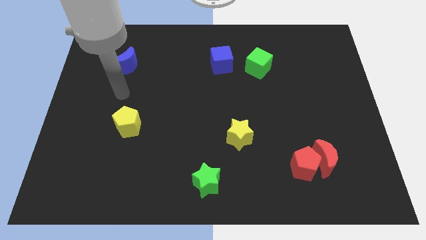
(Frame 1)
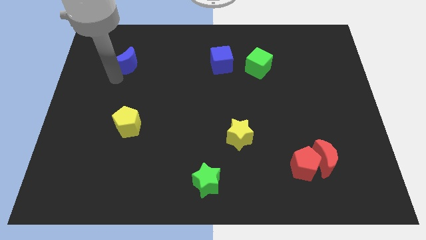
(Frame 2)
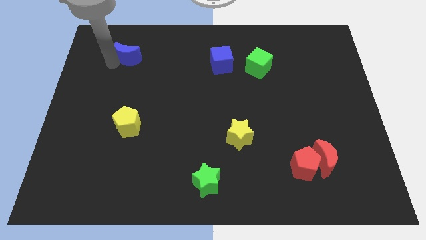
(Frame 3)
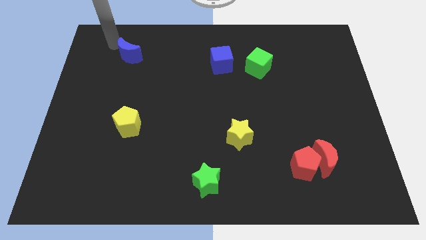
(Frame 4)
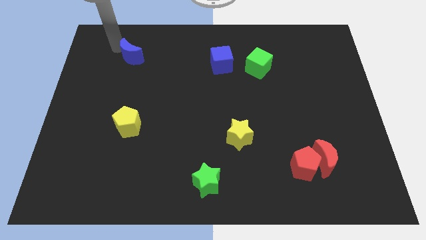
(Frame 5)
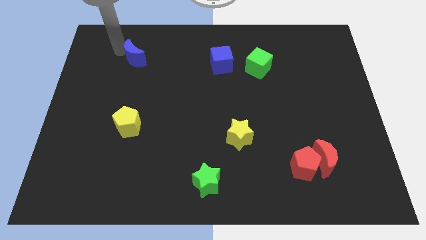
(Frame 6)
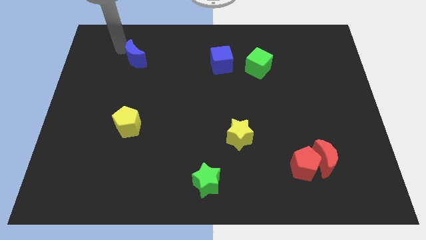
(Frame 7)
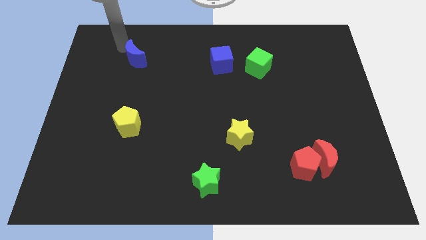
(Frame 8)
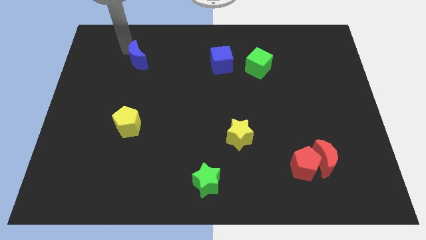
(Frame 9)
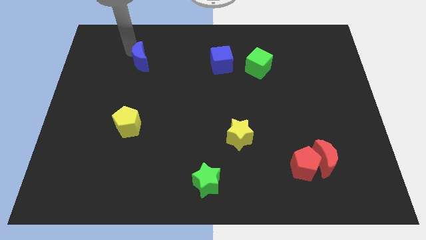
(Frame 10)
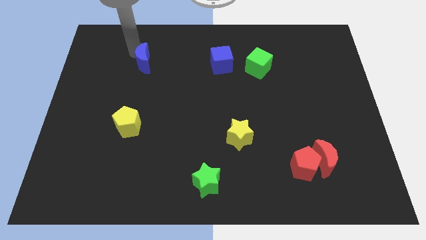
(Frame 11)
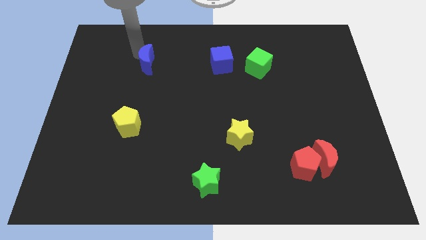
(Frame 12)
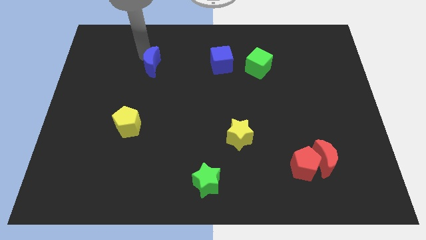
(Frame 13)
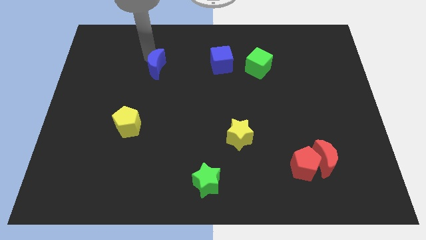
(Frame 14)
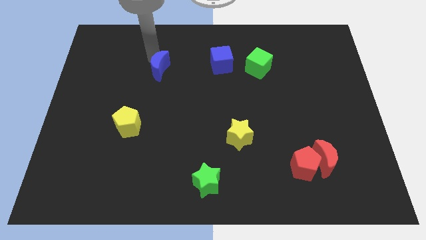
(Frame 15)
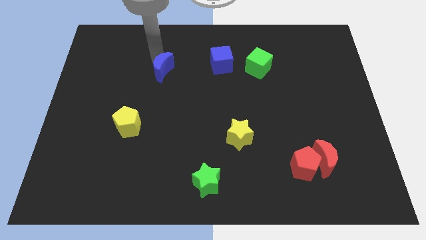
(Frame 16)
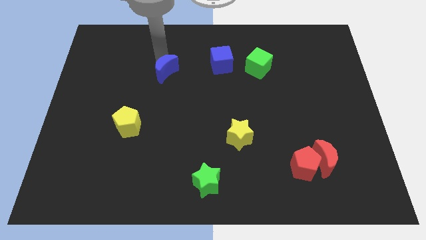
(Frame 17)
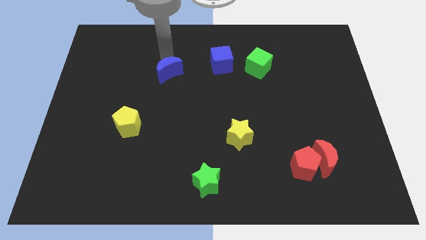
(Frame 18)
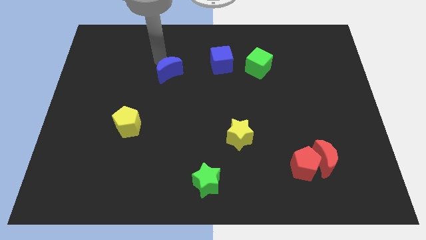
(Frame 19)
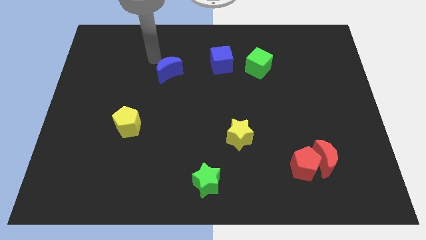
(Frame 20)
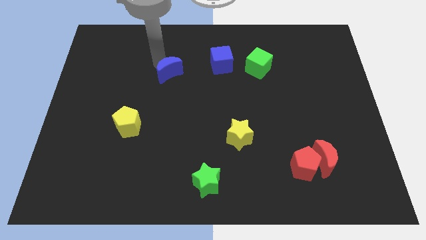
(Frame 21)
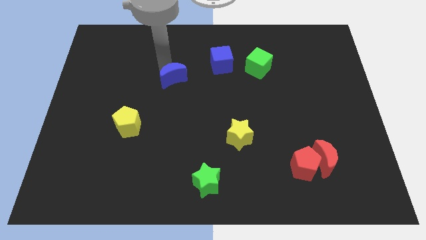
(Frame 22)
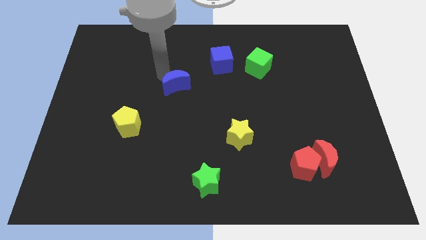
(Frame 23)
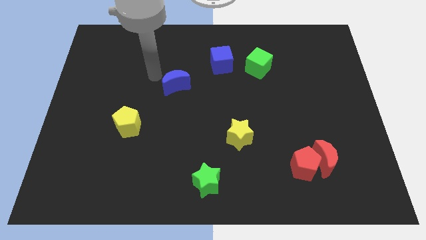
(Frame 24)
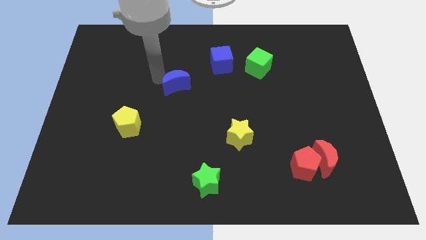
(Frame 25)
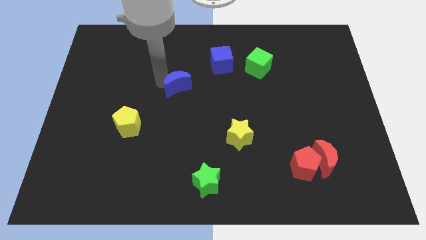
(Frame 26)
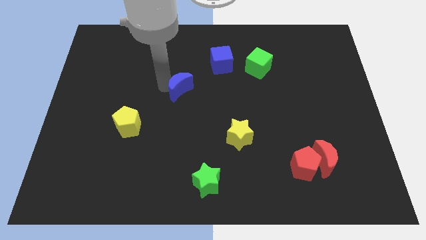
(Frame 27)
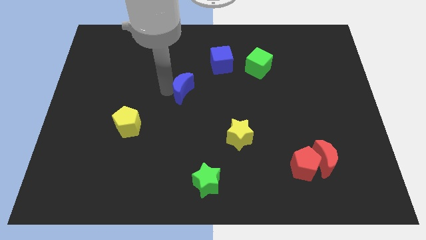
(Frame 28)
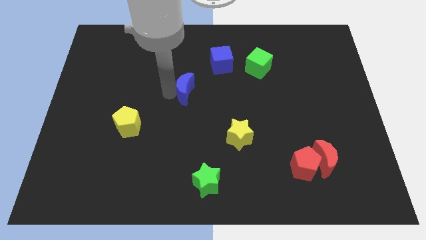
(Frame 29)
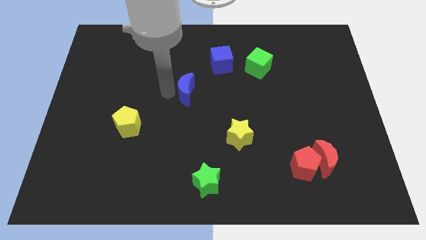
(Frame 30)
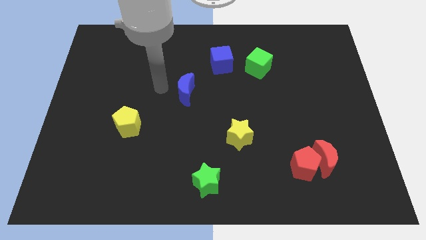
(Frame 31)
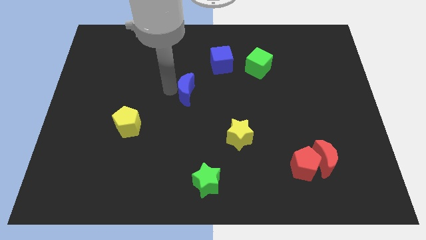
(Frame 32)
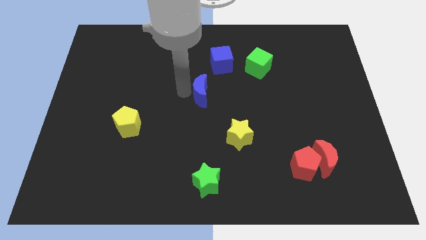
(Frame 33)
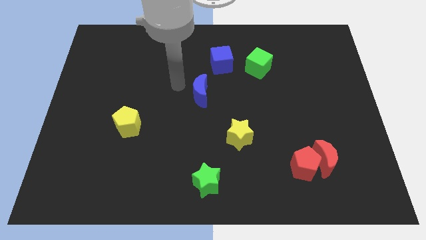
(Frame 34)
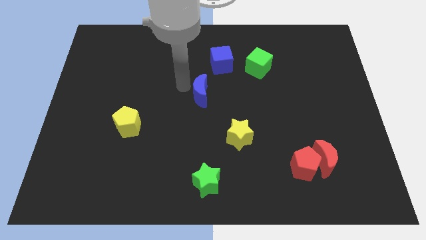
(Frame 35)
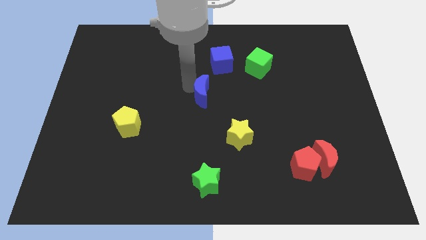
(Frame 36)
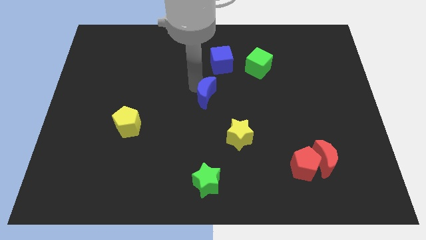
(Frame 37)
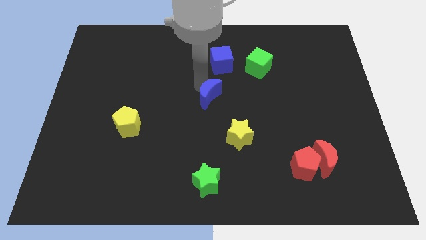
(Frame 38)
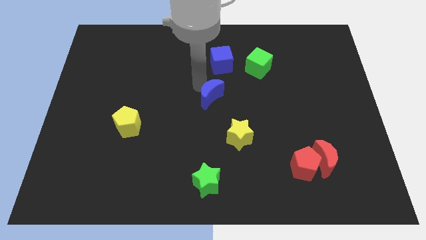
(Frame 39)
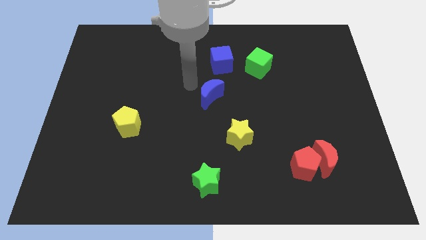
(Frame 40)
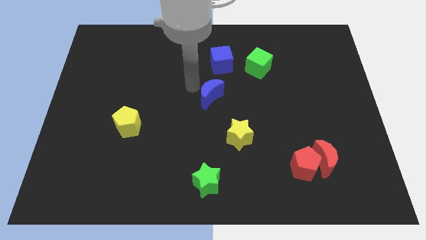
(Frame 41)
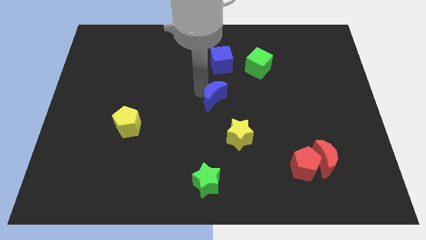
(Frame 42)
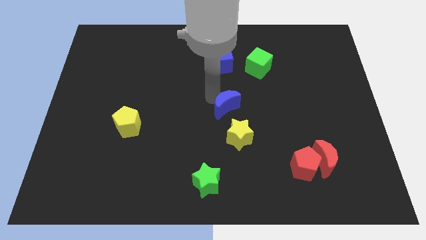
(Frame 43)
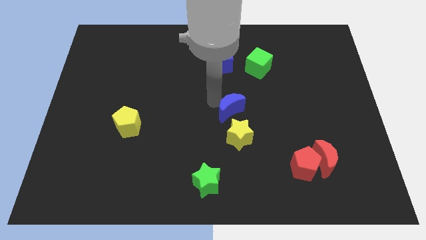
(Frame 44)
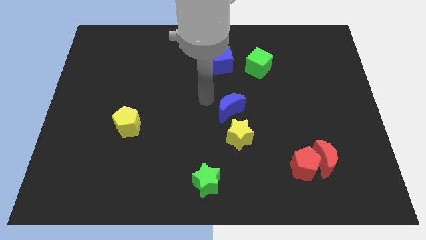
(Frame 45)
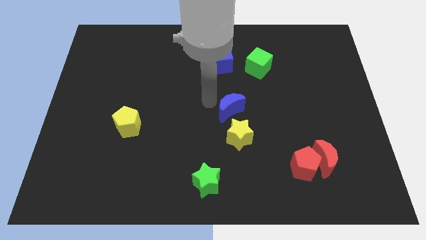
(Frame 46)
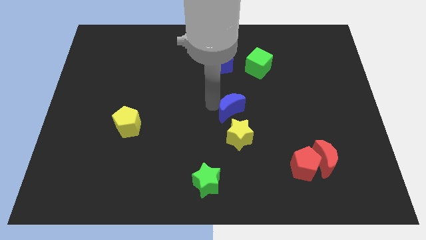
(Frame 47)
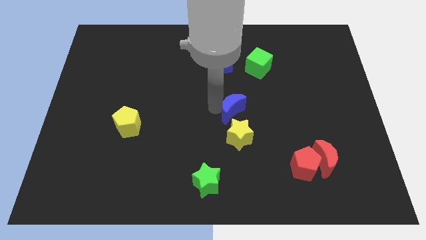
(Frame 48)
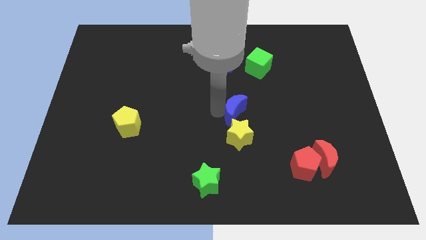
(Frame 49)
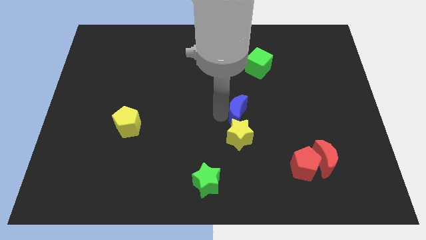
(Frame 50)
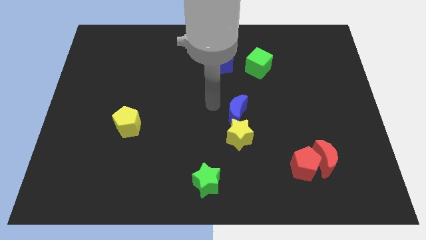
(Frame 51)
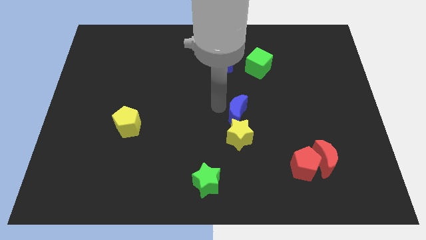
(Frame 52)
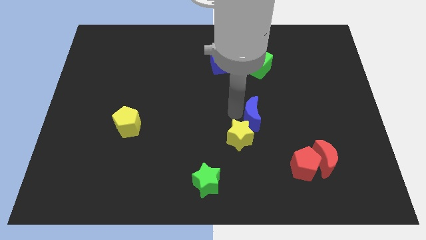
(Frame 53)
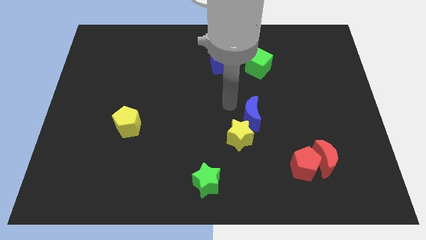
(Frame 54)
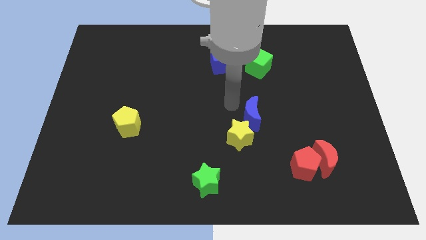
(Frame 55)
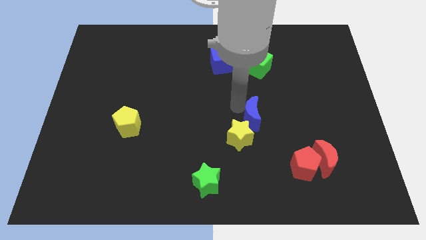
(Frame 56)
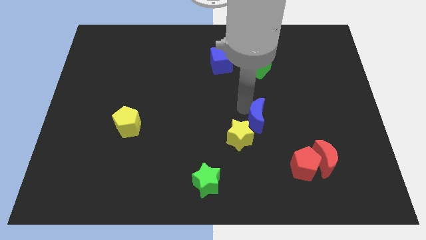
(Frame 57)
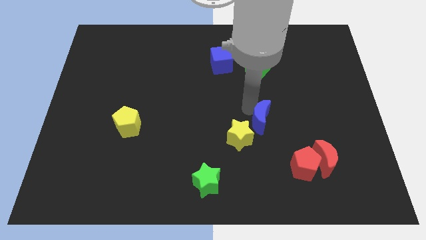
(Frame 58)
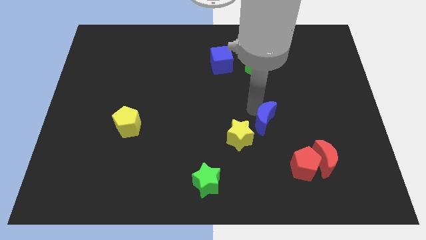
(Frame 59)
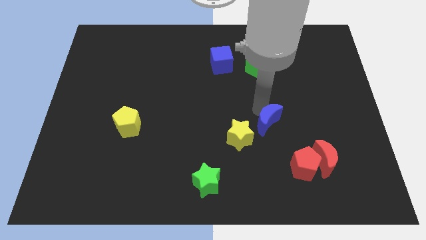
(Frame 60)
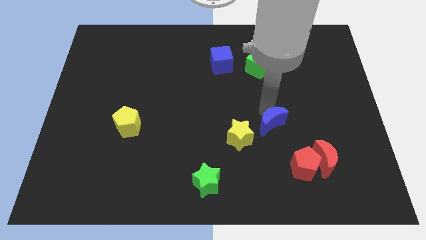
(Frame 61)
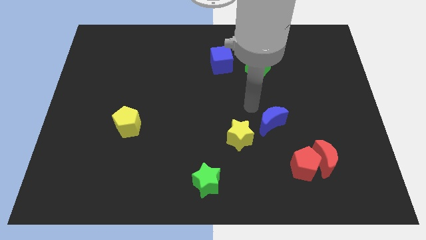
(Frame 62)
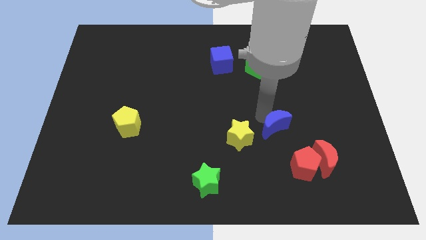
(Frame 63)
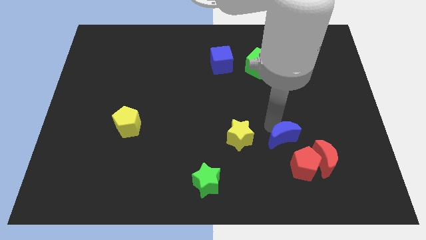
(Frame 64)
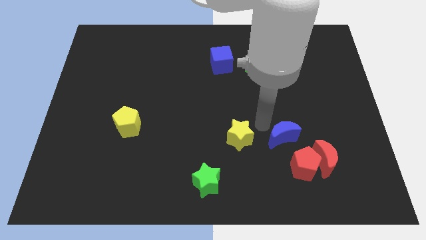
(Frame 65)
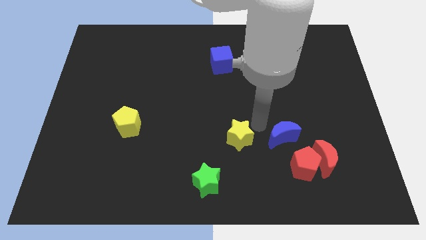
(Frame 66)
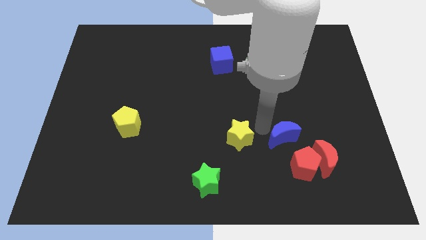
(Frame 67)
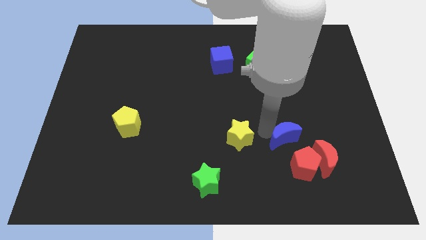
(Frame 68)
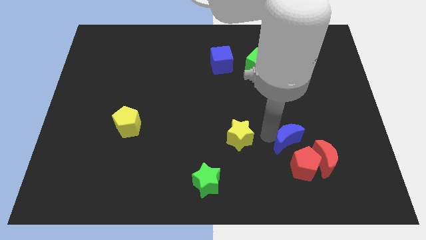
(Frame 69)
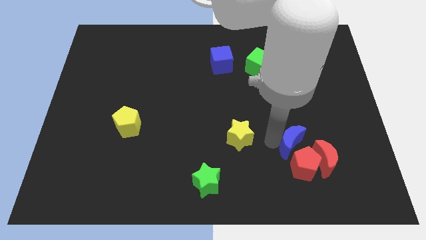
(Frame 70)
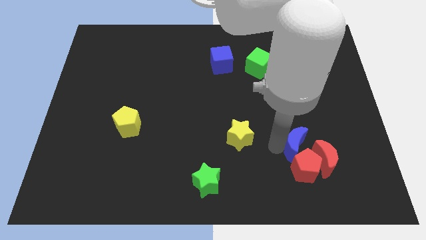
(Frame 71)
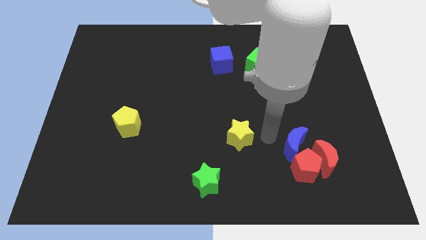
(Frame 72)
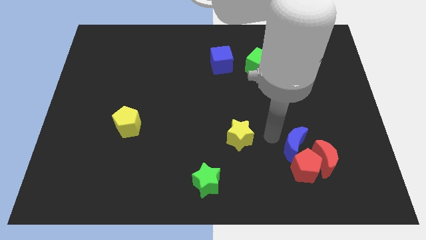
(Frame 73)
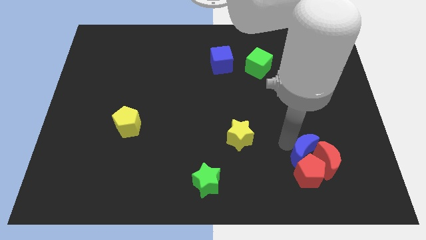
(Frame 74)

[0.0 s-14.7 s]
push the blue moon to the red moon

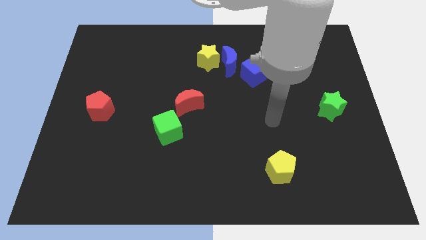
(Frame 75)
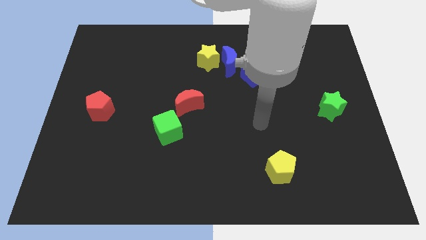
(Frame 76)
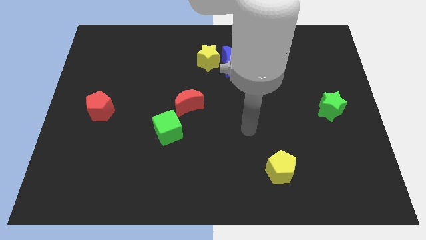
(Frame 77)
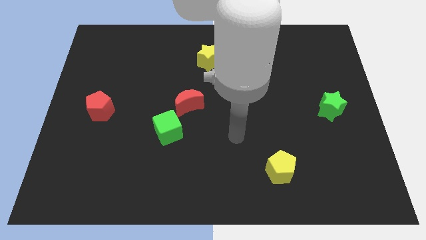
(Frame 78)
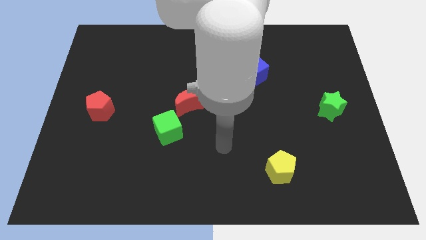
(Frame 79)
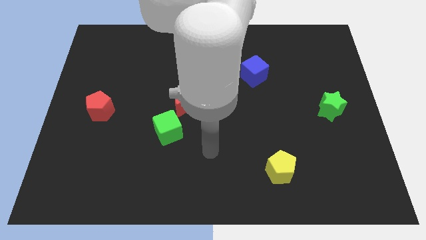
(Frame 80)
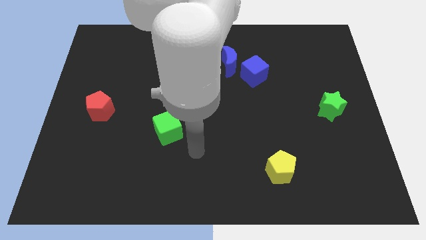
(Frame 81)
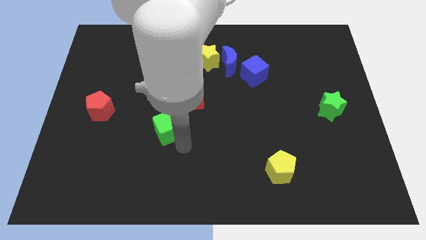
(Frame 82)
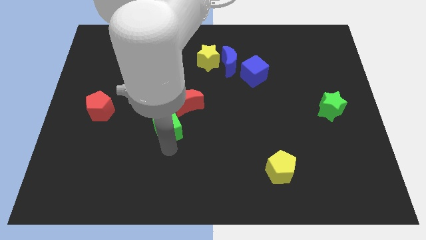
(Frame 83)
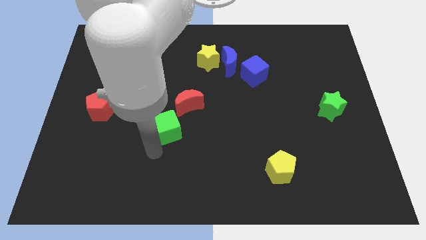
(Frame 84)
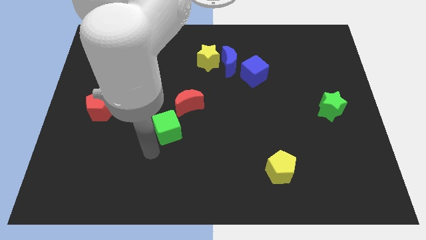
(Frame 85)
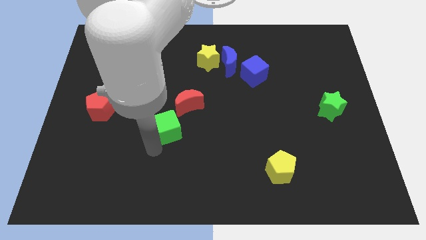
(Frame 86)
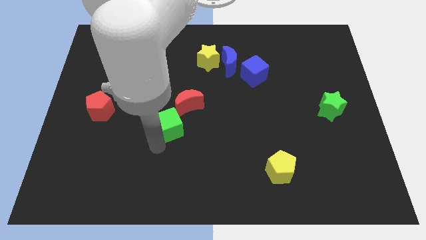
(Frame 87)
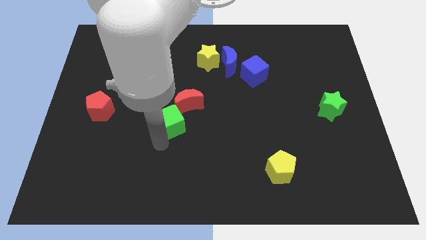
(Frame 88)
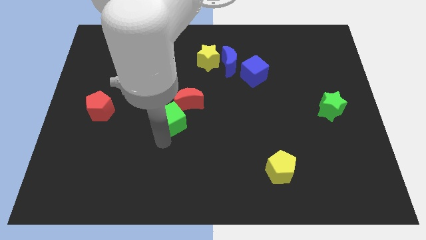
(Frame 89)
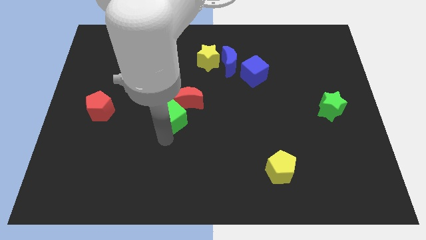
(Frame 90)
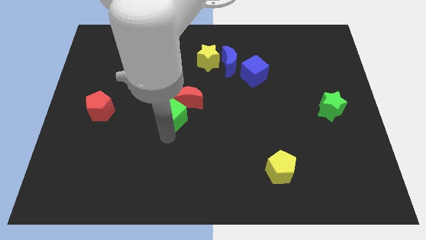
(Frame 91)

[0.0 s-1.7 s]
push the green cube close to the red moon
